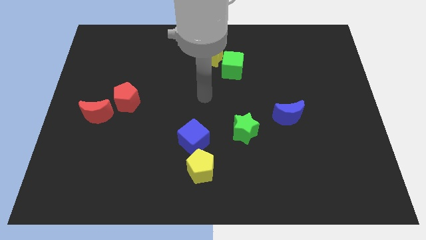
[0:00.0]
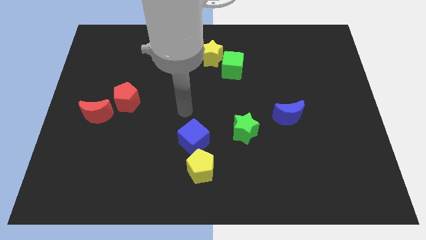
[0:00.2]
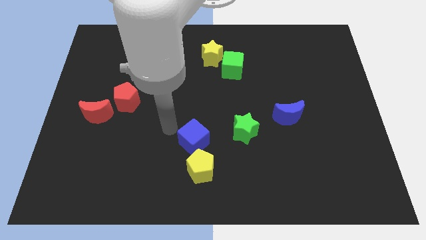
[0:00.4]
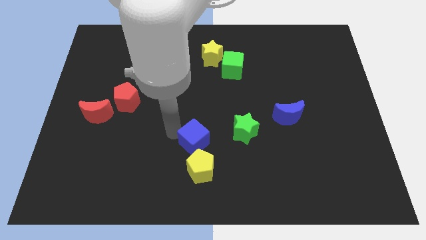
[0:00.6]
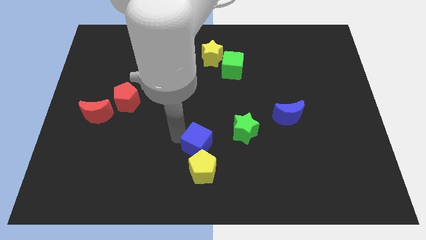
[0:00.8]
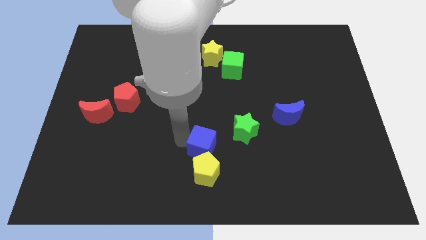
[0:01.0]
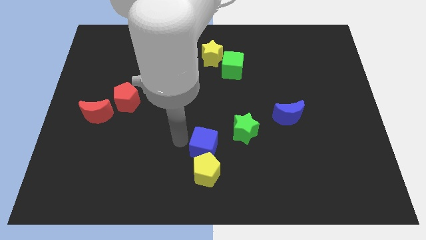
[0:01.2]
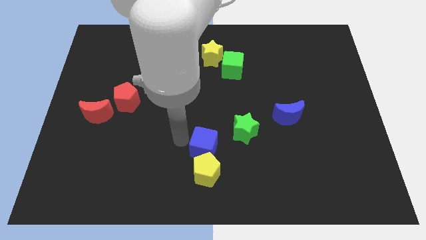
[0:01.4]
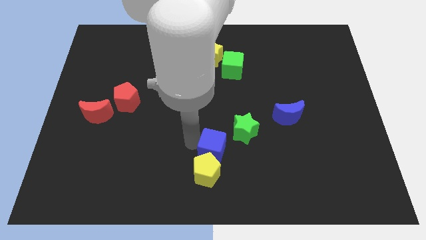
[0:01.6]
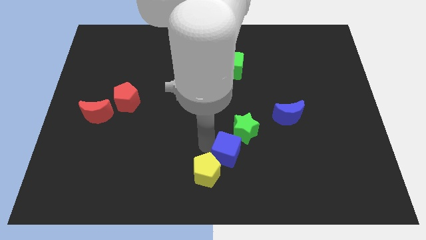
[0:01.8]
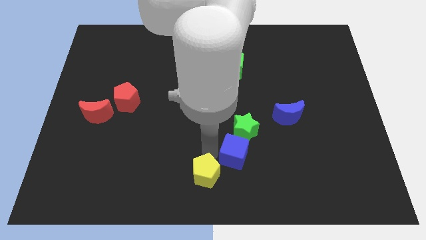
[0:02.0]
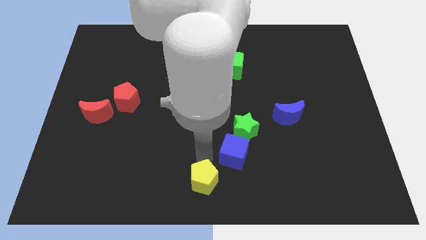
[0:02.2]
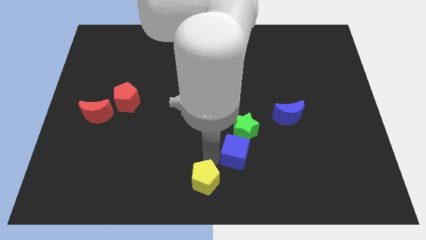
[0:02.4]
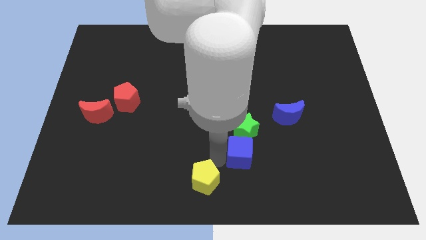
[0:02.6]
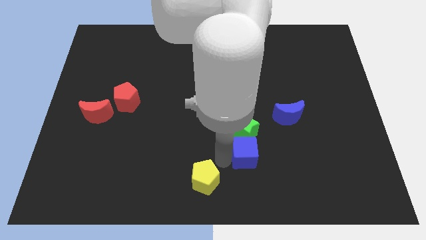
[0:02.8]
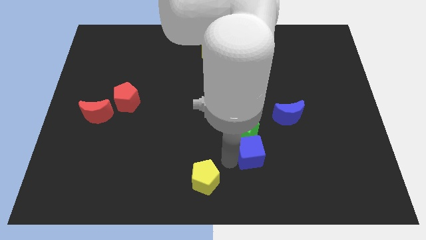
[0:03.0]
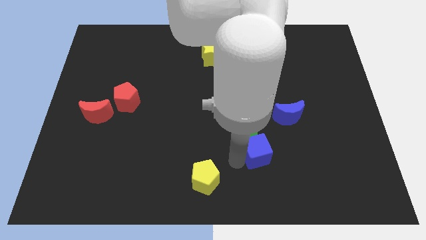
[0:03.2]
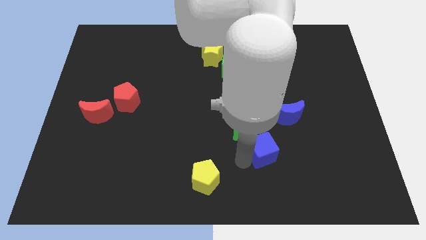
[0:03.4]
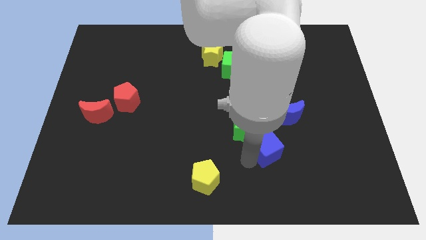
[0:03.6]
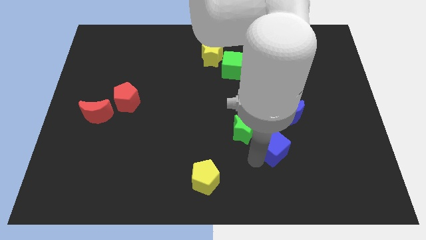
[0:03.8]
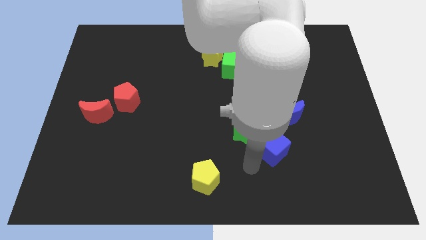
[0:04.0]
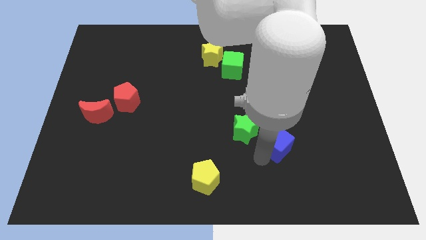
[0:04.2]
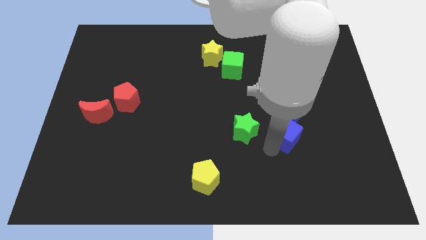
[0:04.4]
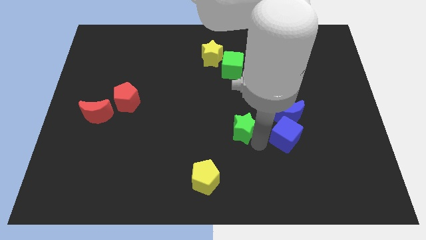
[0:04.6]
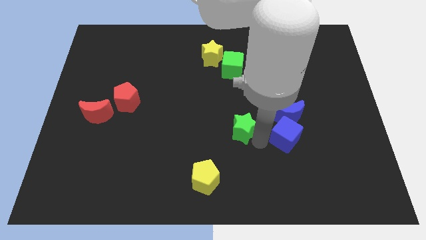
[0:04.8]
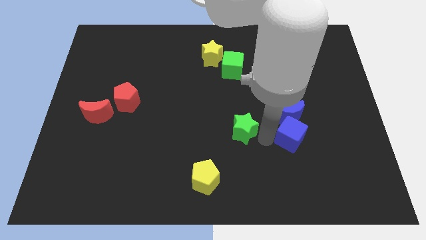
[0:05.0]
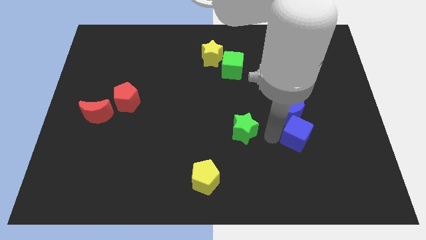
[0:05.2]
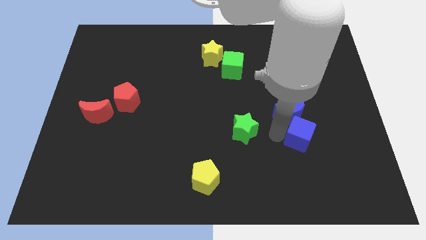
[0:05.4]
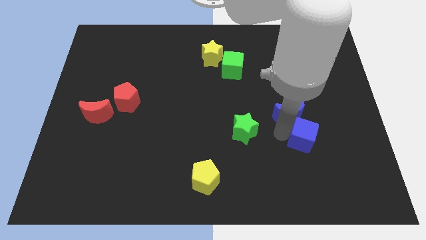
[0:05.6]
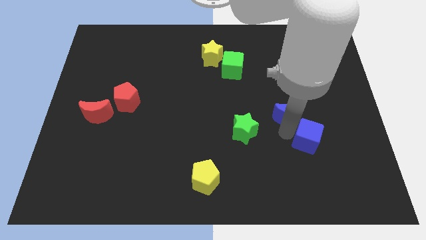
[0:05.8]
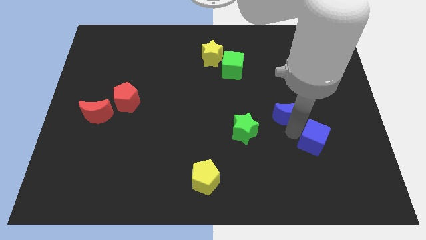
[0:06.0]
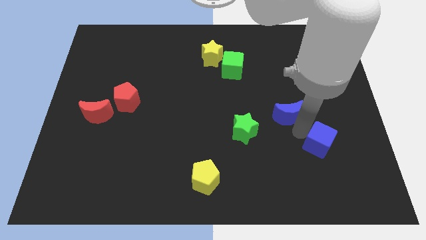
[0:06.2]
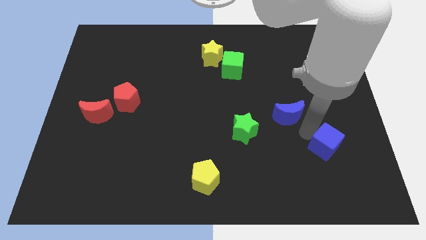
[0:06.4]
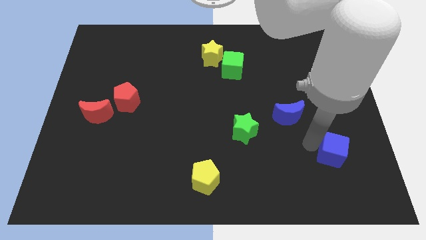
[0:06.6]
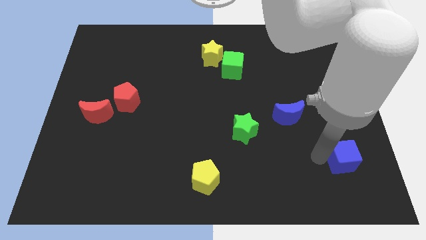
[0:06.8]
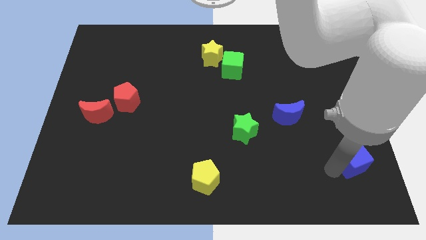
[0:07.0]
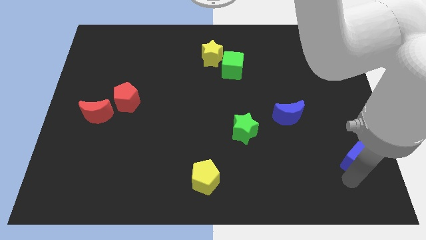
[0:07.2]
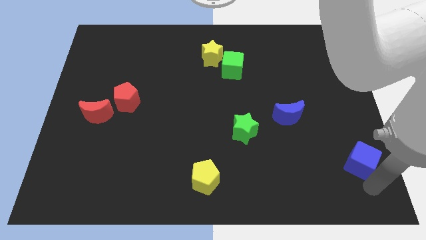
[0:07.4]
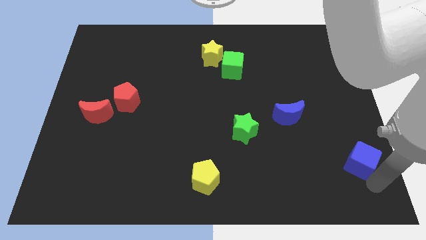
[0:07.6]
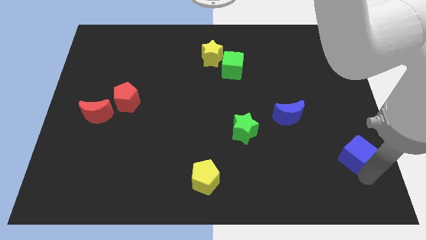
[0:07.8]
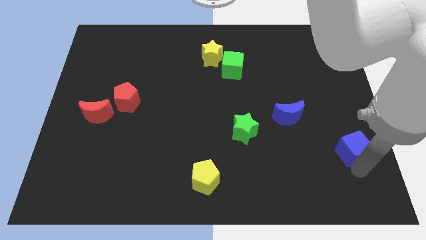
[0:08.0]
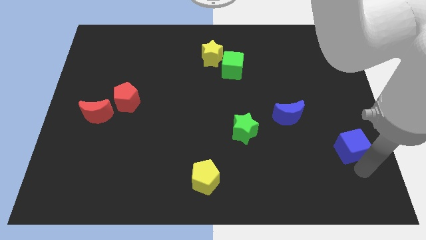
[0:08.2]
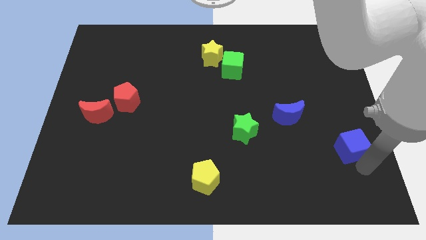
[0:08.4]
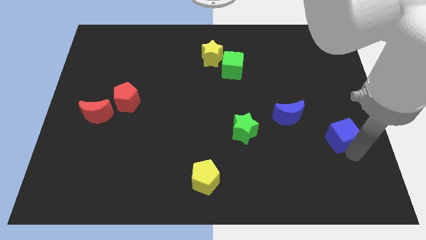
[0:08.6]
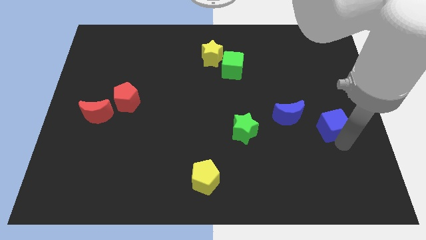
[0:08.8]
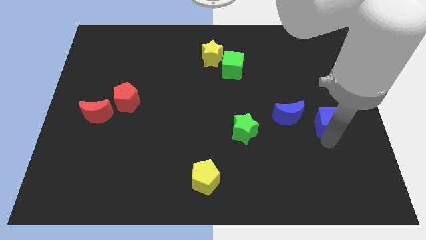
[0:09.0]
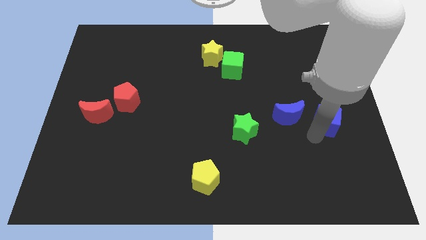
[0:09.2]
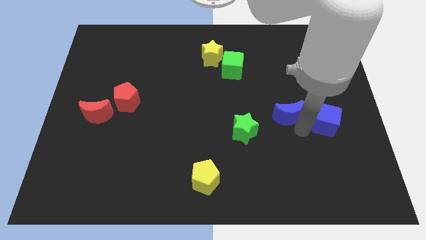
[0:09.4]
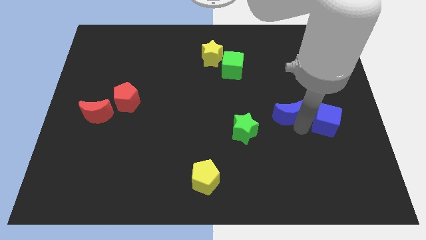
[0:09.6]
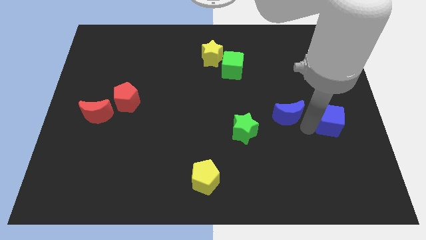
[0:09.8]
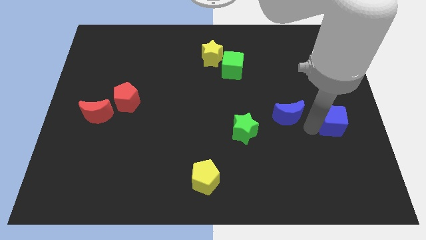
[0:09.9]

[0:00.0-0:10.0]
push the blue cube to the right side of the board
